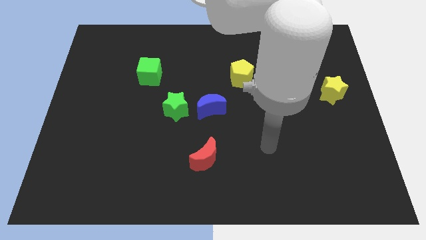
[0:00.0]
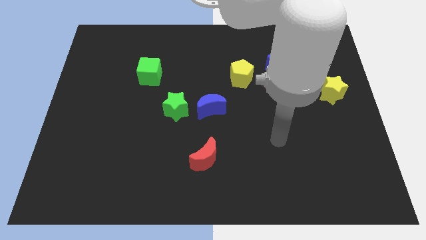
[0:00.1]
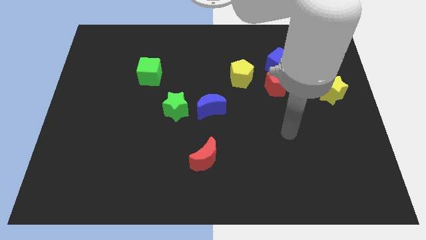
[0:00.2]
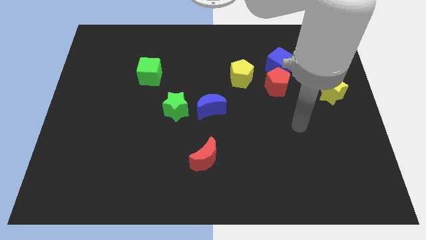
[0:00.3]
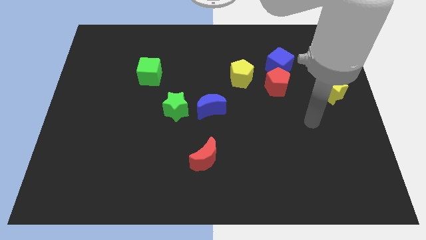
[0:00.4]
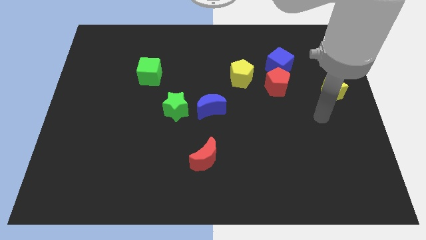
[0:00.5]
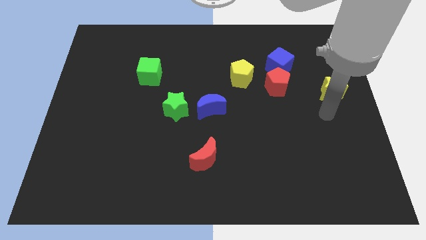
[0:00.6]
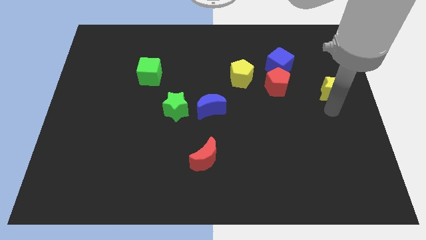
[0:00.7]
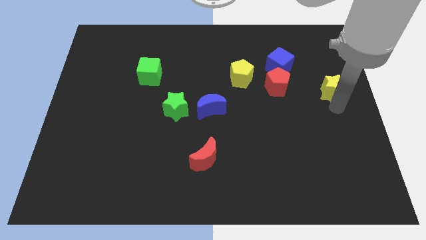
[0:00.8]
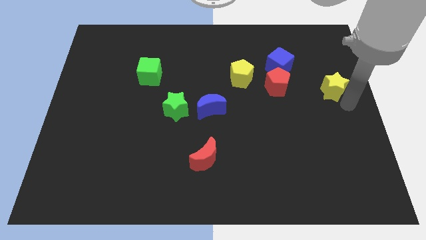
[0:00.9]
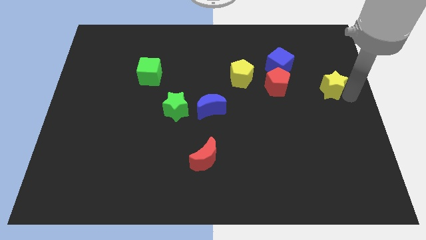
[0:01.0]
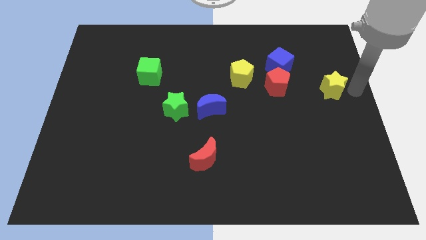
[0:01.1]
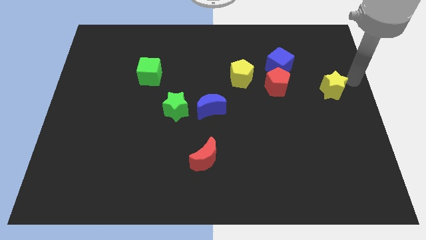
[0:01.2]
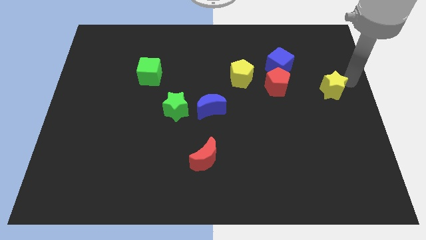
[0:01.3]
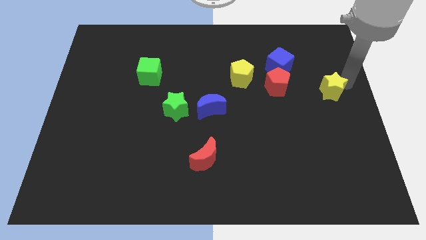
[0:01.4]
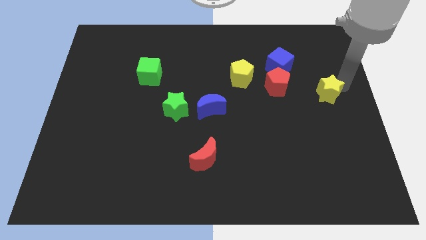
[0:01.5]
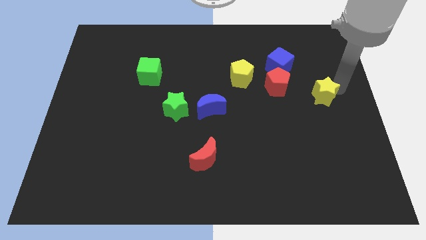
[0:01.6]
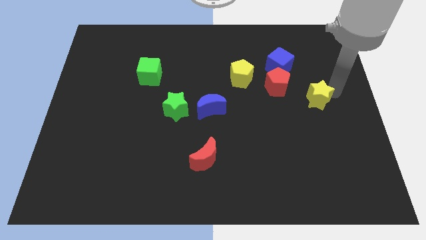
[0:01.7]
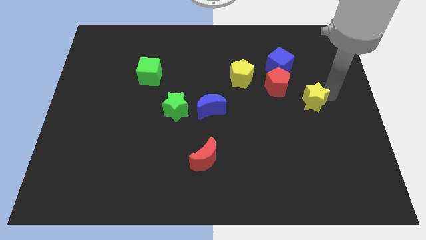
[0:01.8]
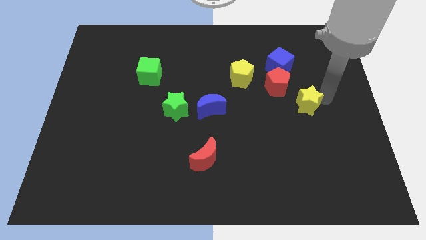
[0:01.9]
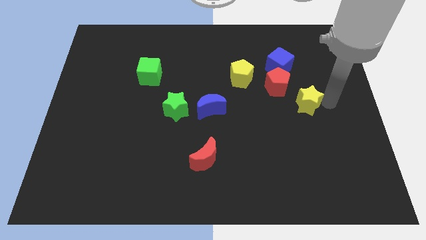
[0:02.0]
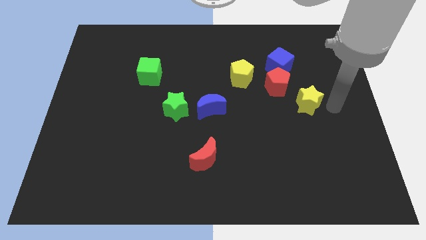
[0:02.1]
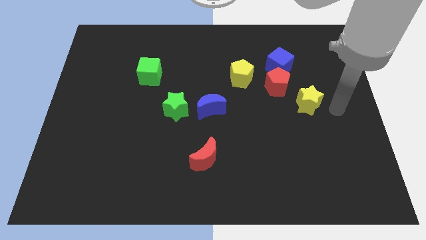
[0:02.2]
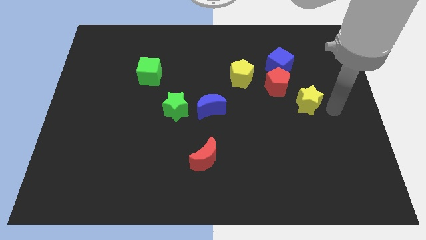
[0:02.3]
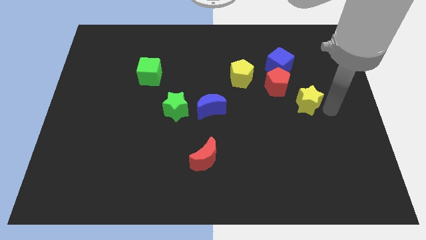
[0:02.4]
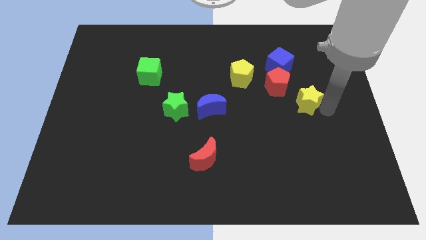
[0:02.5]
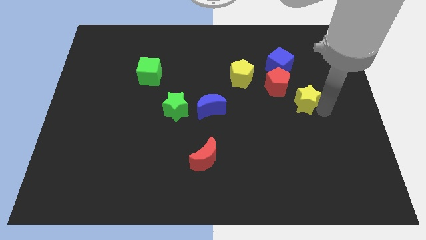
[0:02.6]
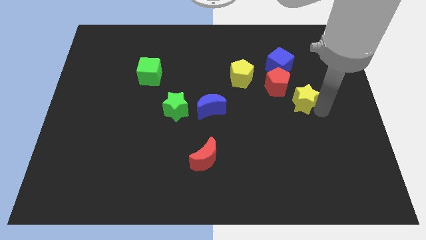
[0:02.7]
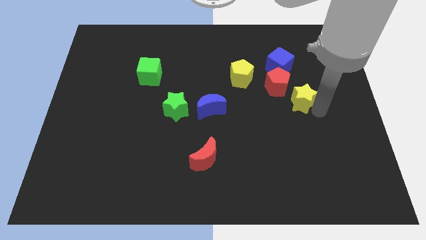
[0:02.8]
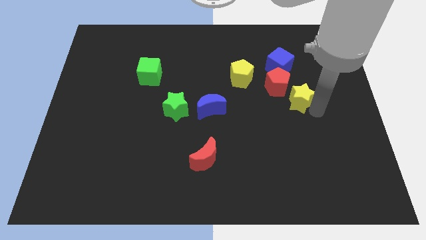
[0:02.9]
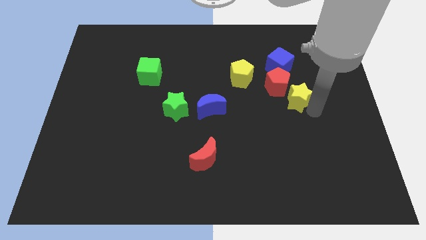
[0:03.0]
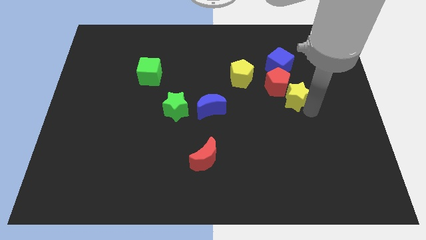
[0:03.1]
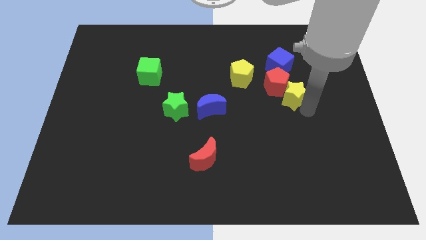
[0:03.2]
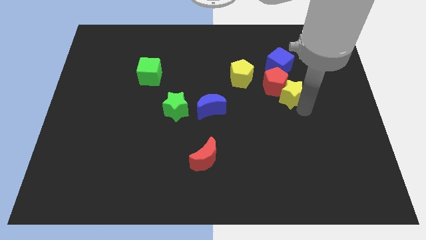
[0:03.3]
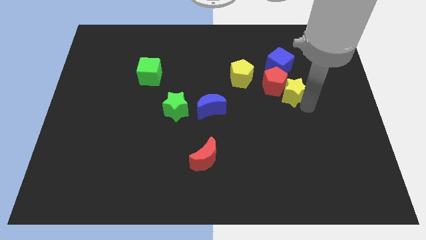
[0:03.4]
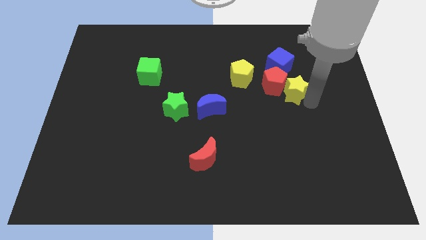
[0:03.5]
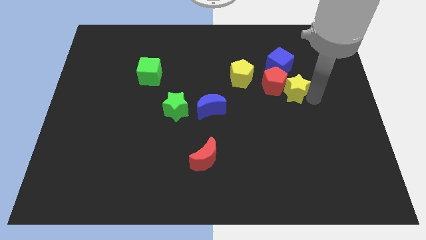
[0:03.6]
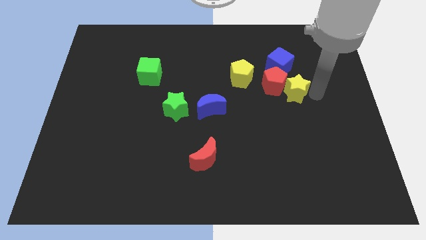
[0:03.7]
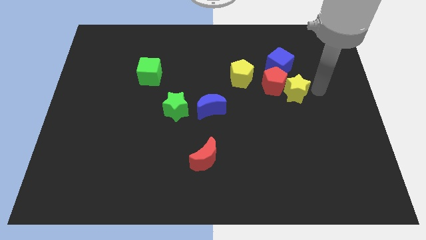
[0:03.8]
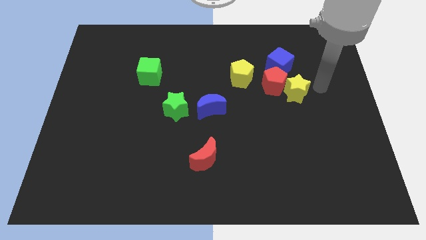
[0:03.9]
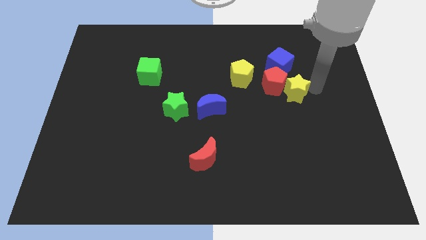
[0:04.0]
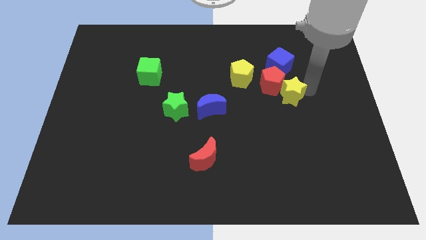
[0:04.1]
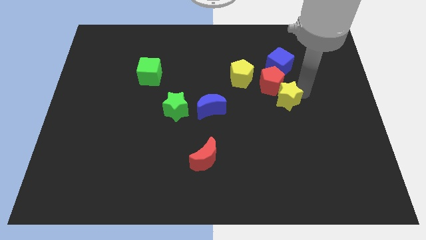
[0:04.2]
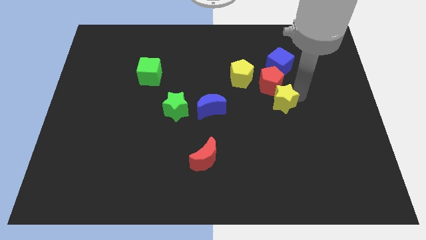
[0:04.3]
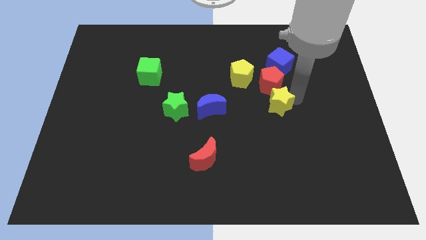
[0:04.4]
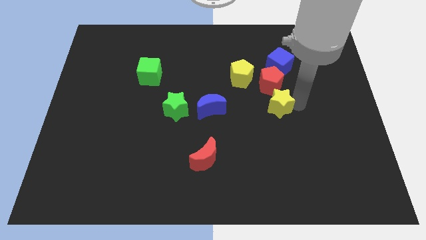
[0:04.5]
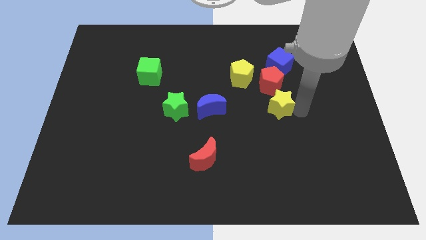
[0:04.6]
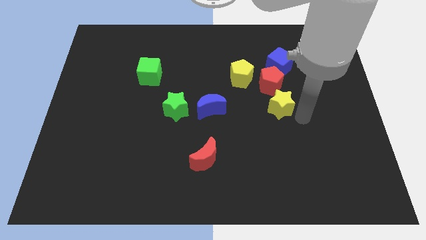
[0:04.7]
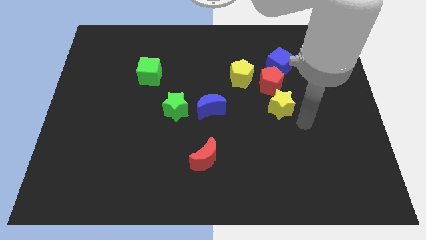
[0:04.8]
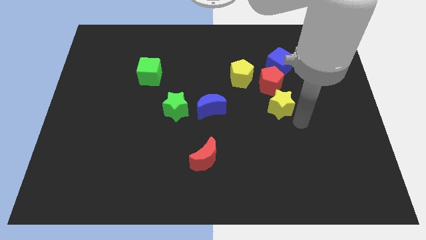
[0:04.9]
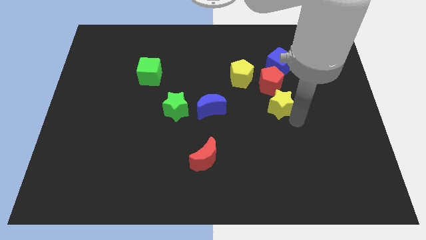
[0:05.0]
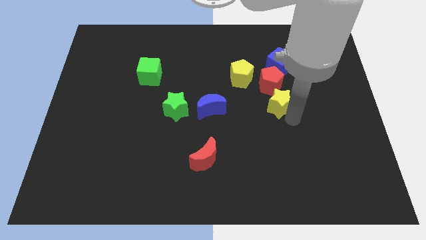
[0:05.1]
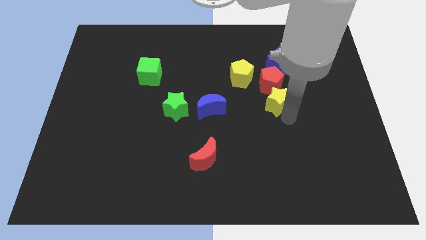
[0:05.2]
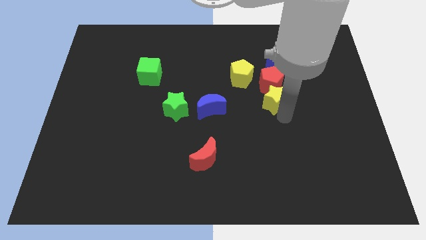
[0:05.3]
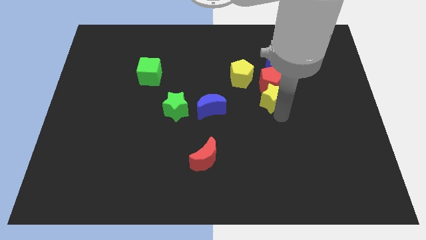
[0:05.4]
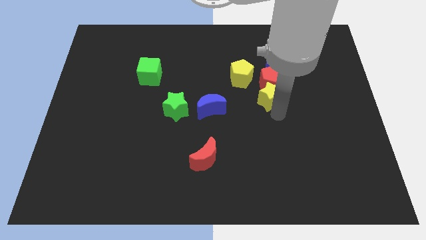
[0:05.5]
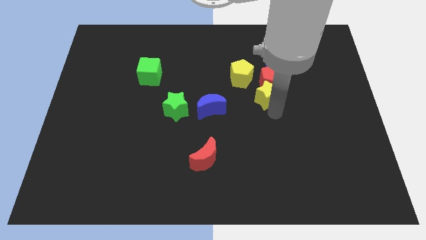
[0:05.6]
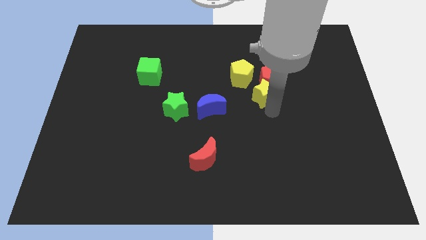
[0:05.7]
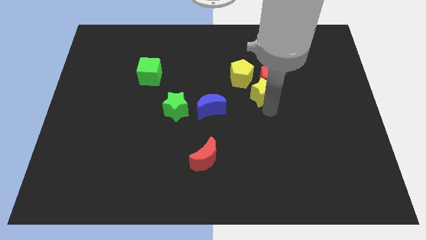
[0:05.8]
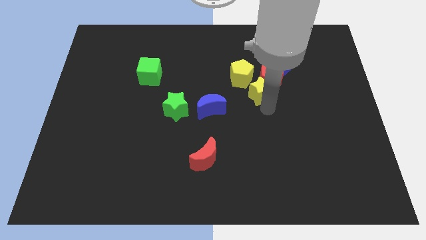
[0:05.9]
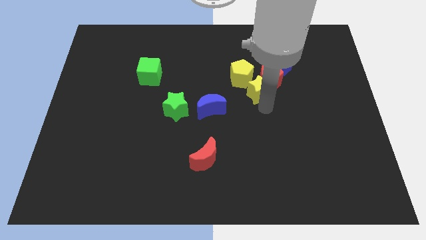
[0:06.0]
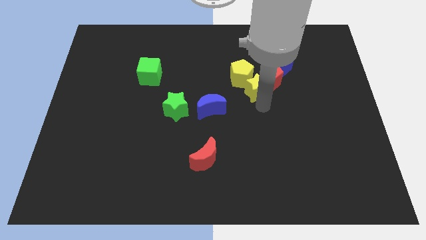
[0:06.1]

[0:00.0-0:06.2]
put the yellow star next to the yellow pentagon

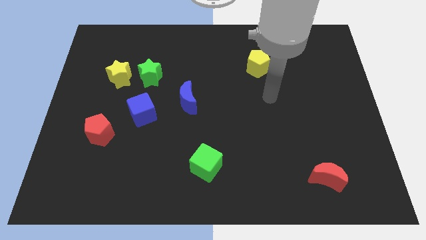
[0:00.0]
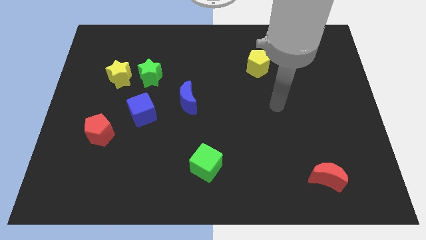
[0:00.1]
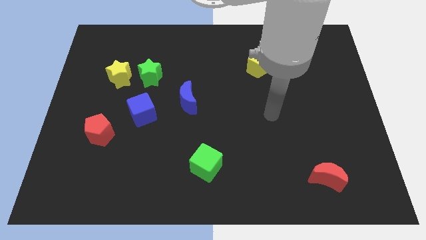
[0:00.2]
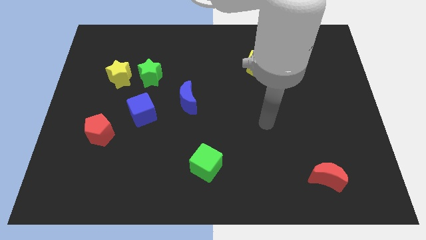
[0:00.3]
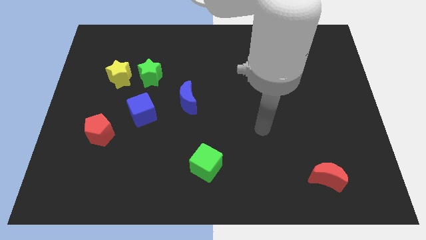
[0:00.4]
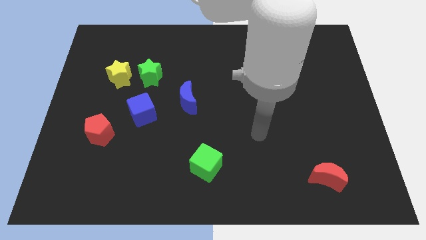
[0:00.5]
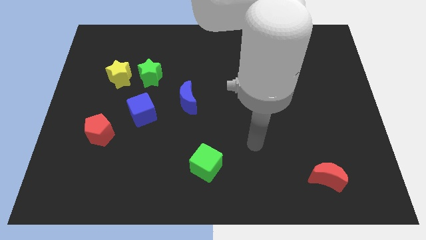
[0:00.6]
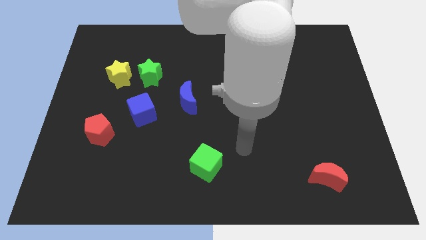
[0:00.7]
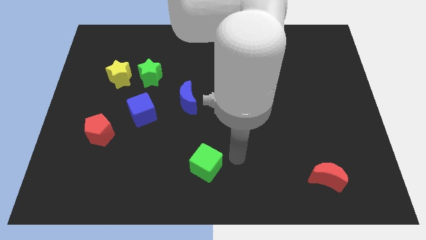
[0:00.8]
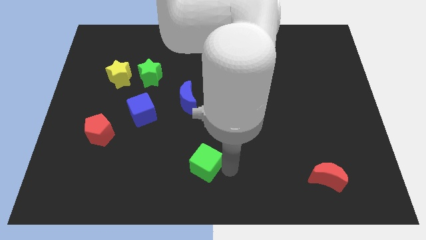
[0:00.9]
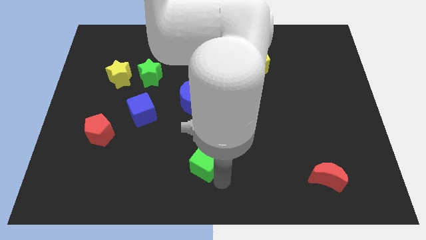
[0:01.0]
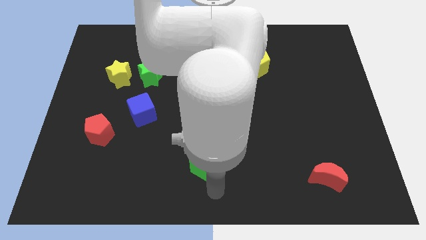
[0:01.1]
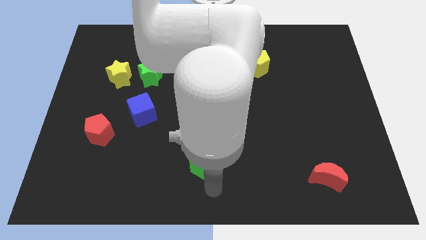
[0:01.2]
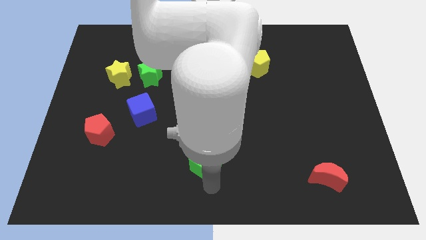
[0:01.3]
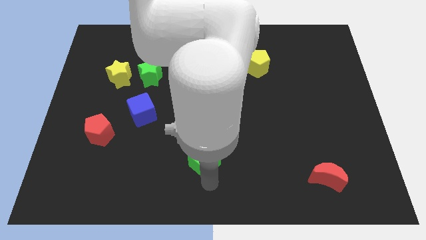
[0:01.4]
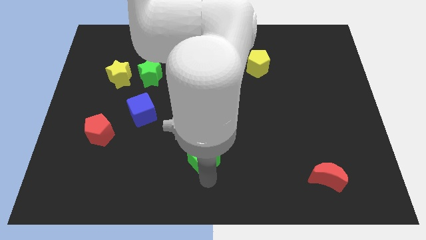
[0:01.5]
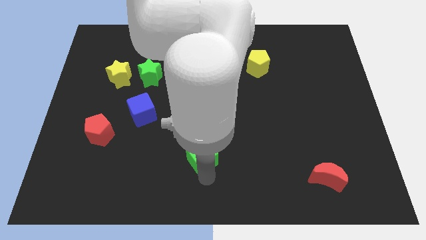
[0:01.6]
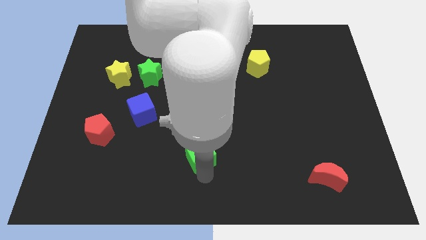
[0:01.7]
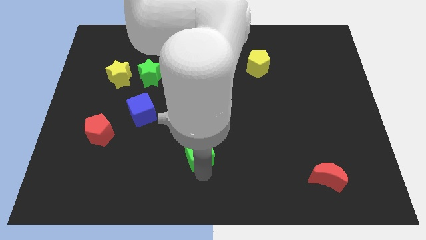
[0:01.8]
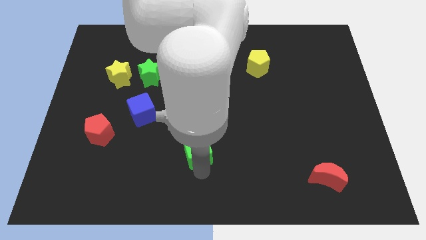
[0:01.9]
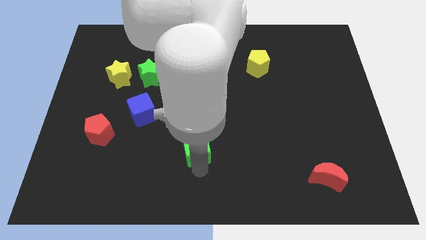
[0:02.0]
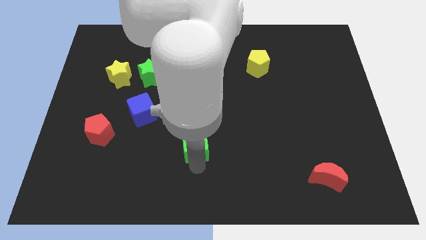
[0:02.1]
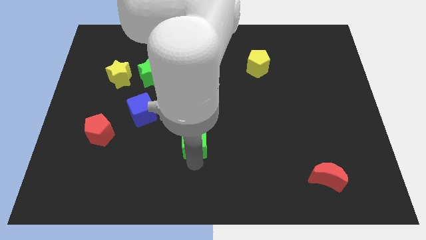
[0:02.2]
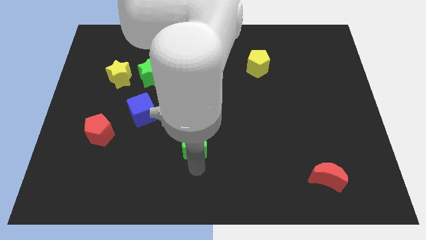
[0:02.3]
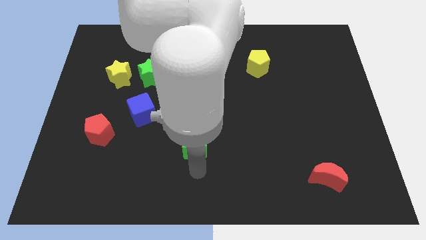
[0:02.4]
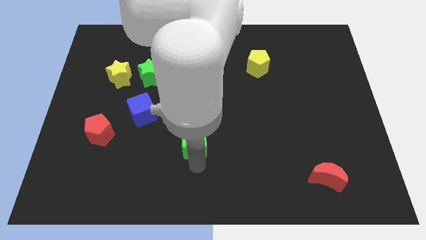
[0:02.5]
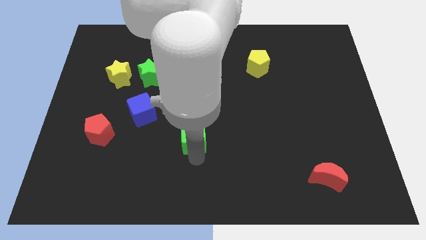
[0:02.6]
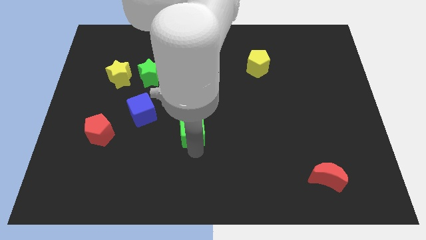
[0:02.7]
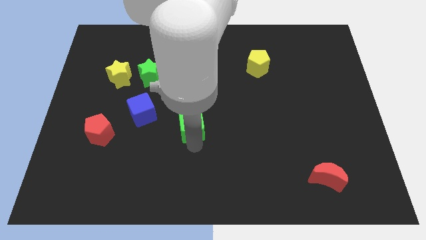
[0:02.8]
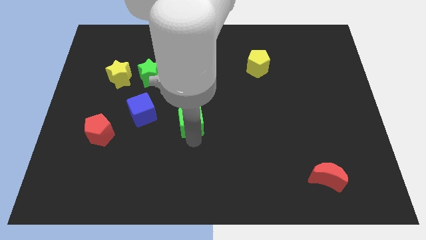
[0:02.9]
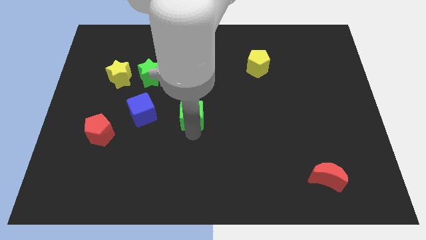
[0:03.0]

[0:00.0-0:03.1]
slide the green cube to the blue moon
